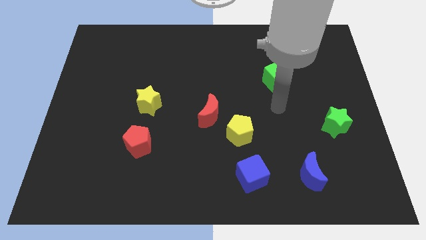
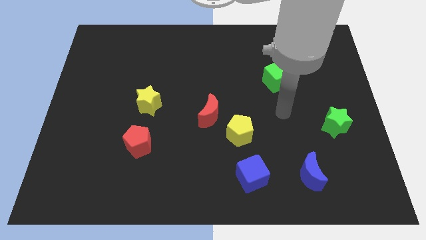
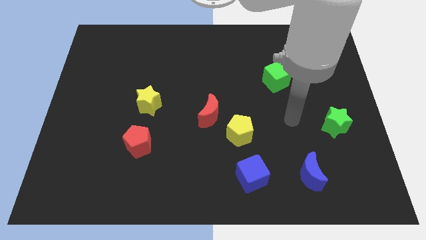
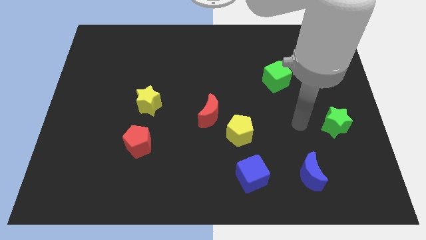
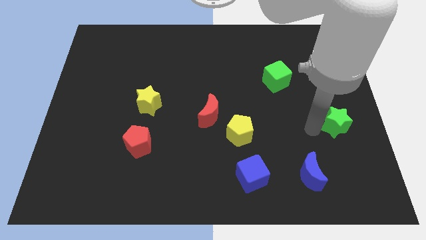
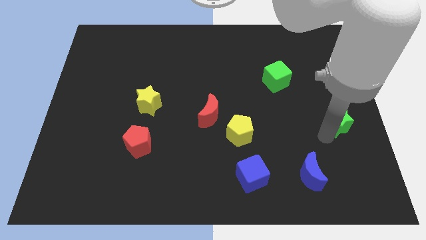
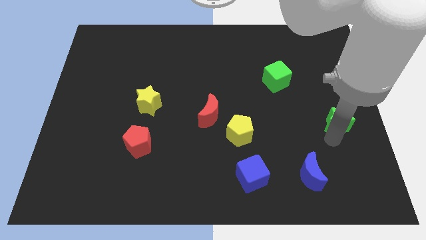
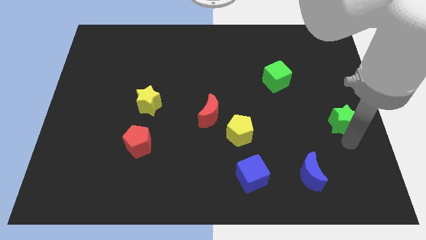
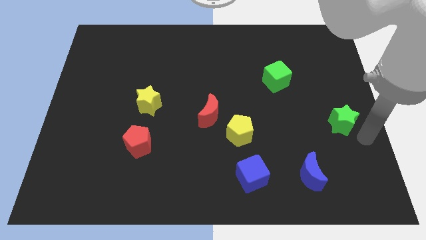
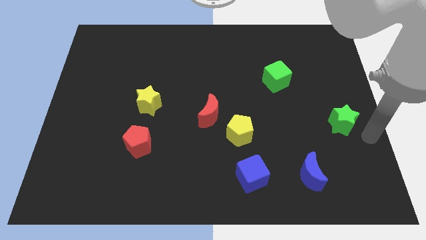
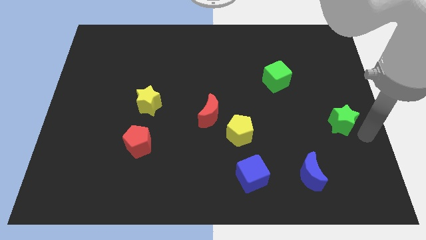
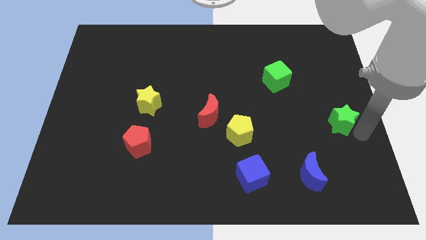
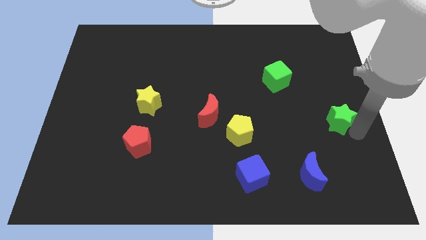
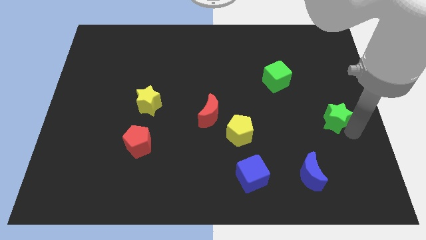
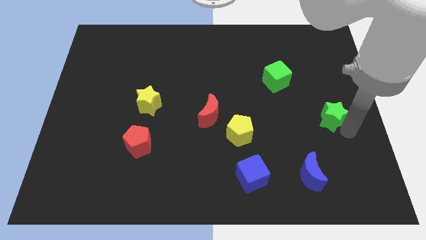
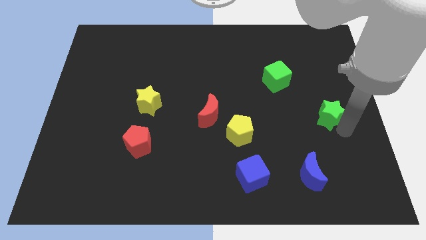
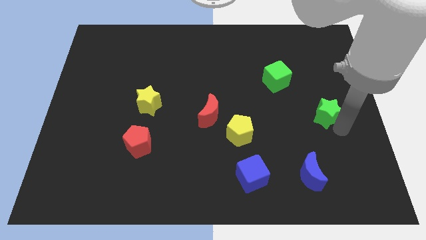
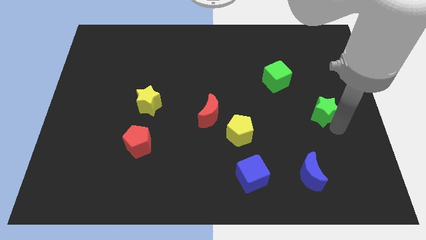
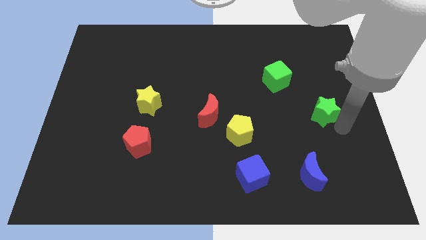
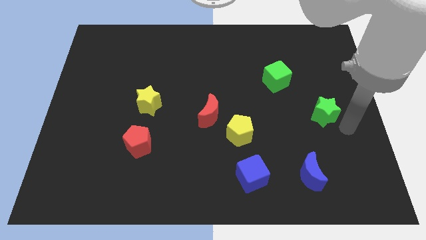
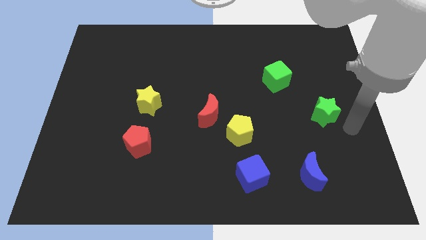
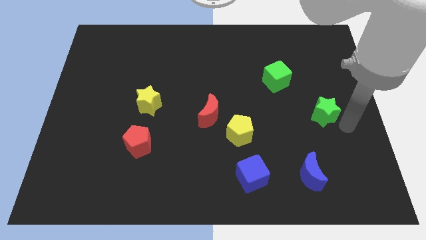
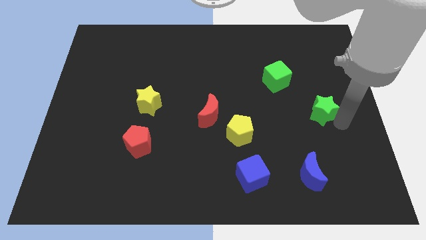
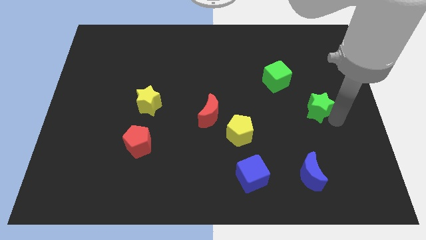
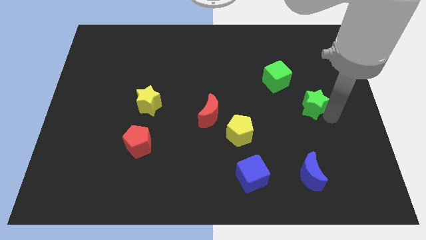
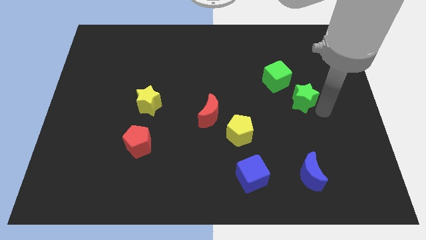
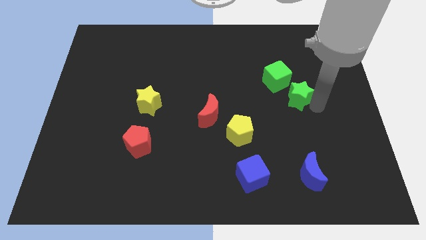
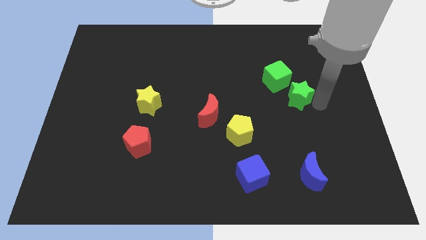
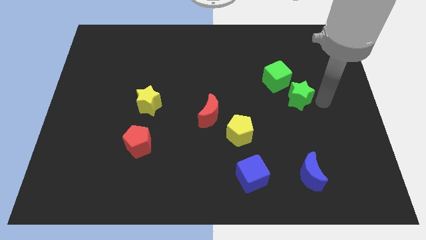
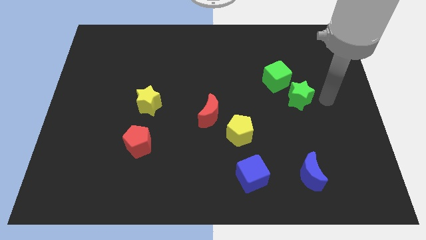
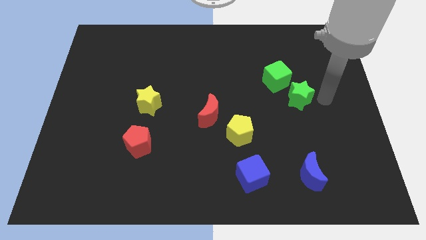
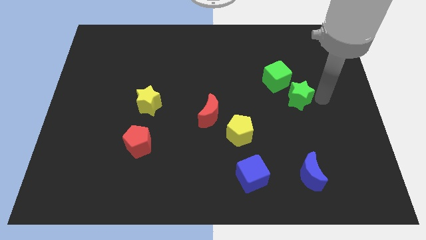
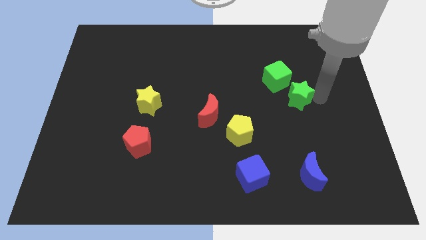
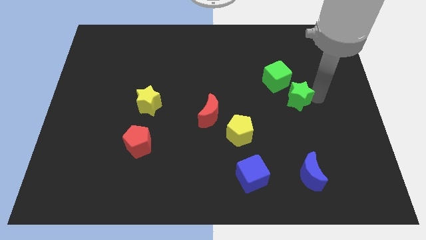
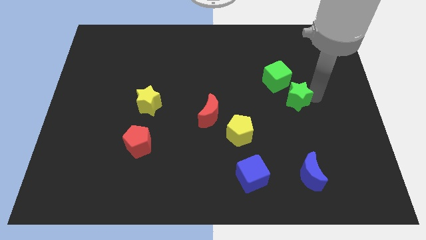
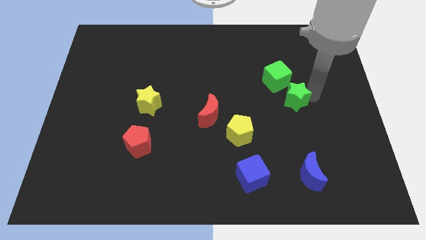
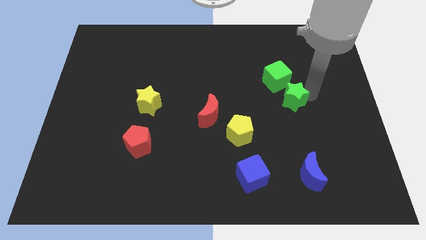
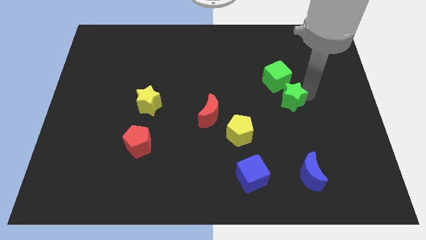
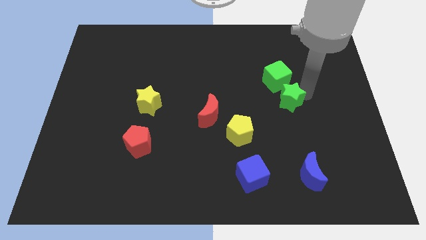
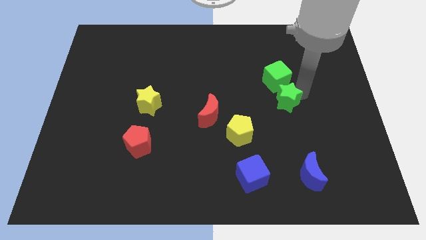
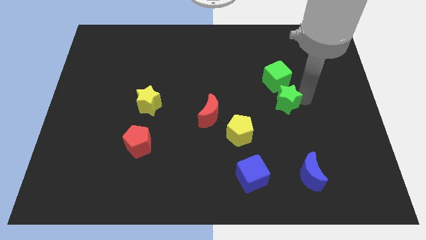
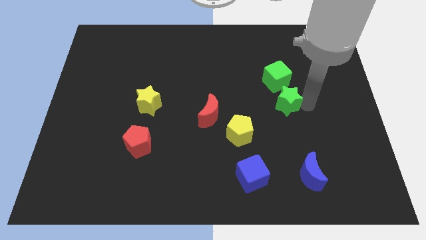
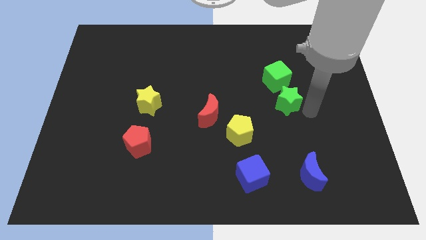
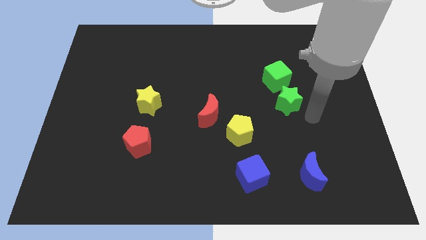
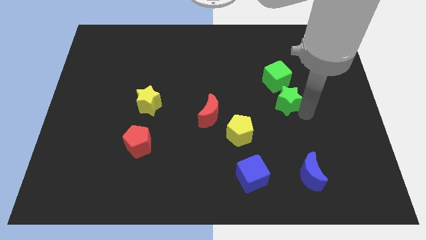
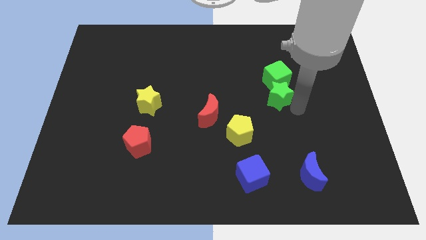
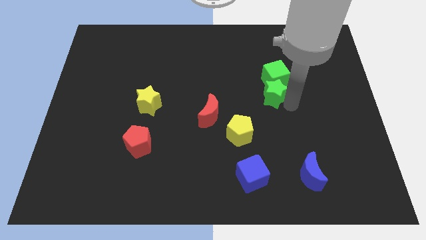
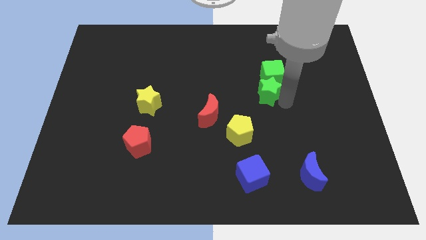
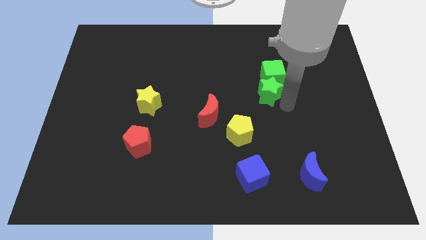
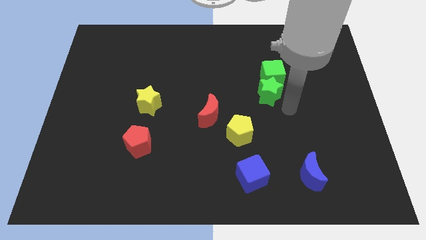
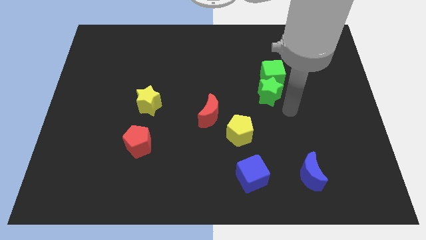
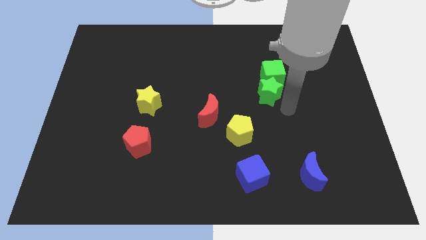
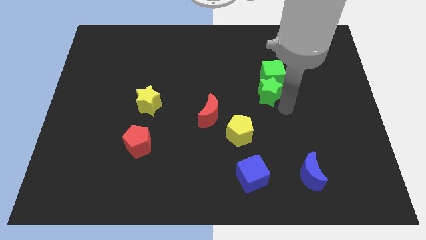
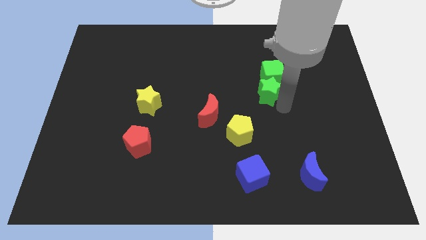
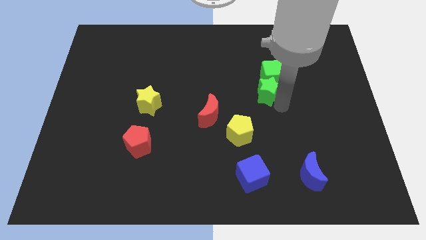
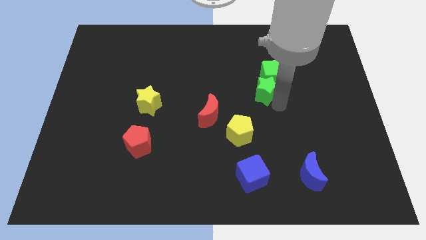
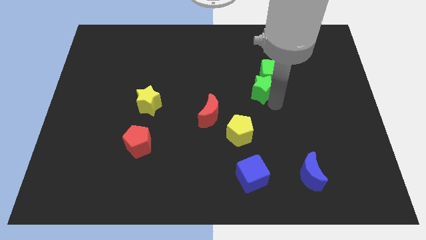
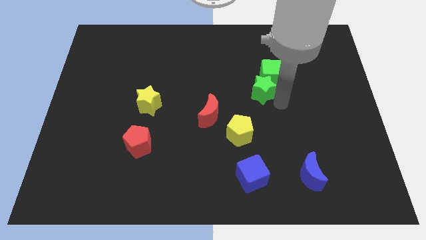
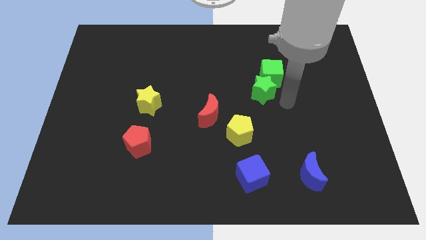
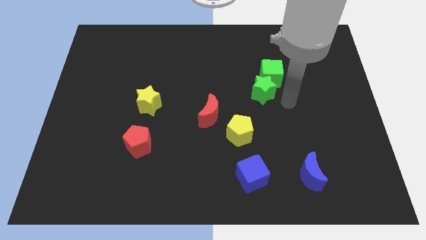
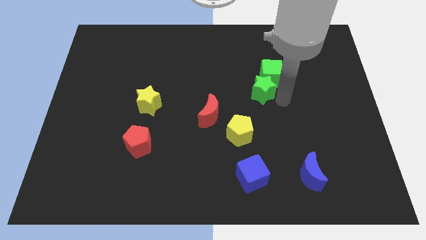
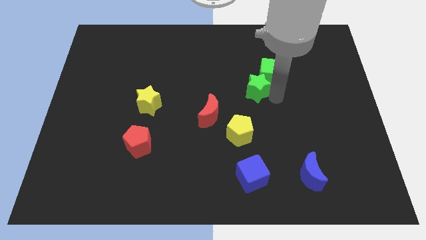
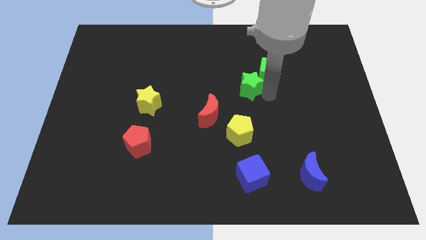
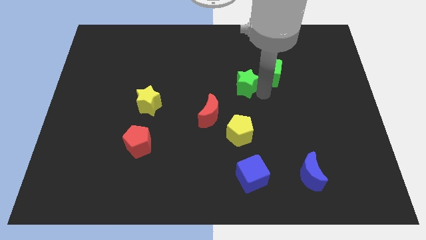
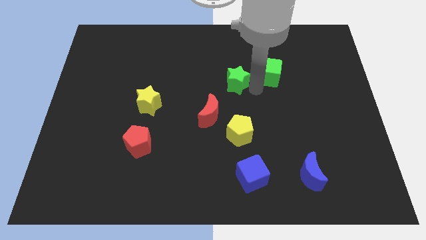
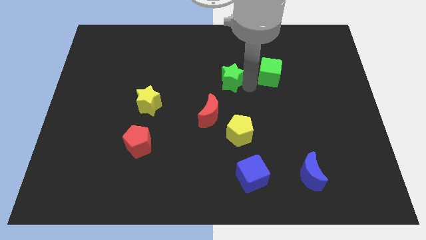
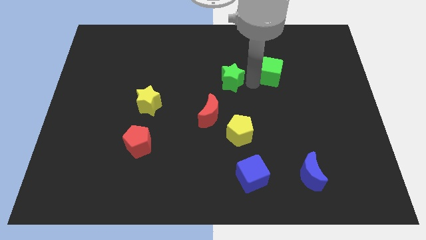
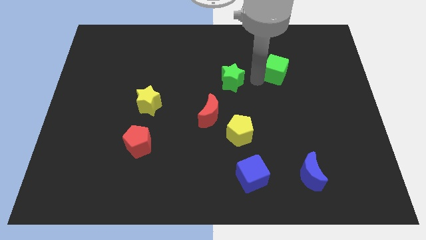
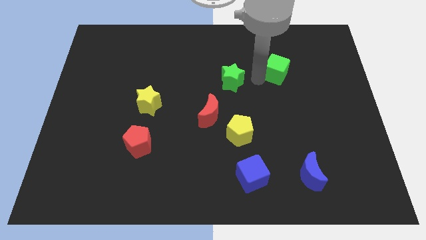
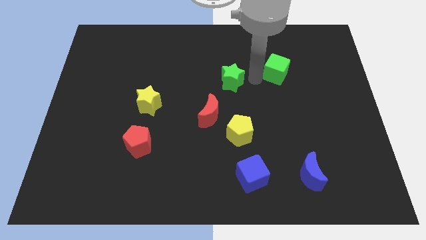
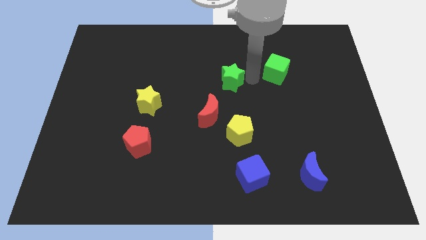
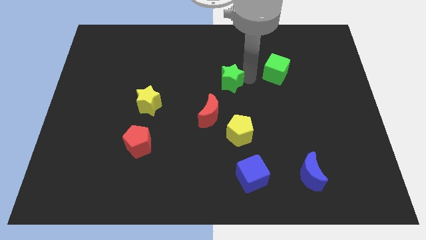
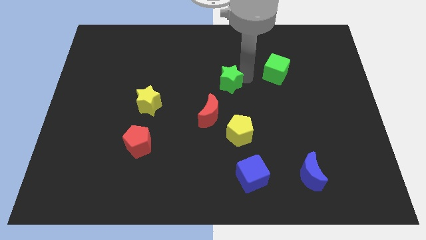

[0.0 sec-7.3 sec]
move the green star to the top side of the red moon
